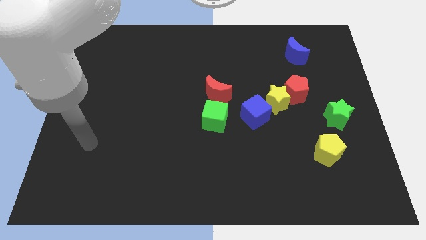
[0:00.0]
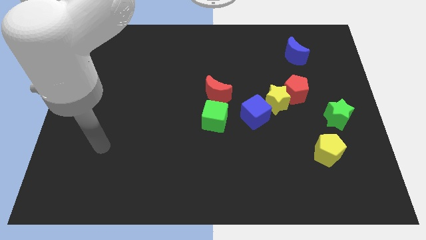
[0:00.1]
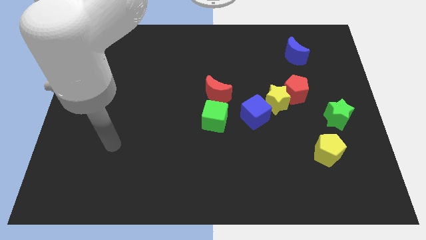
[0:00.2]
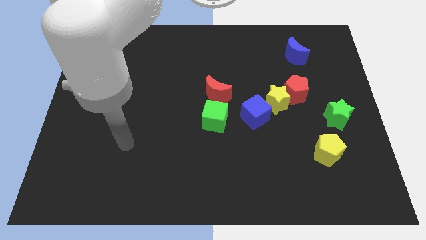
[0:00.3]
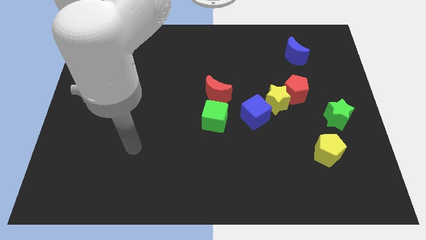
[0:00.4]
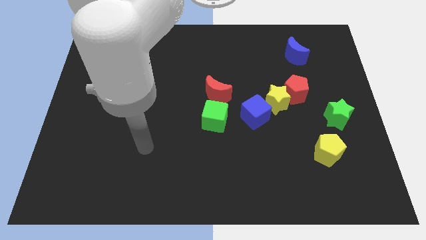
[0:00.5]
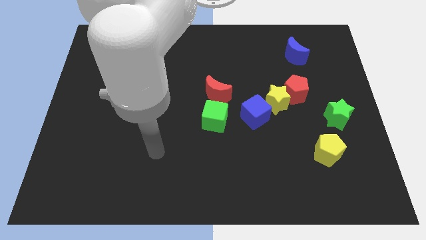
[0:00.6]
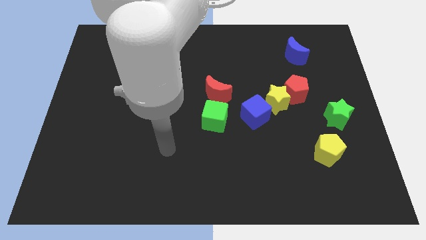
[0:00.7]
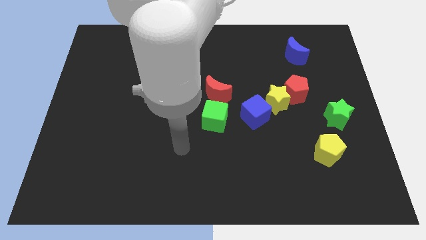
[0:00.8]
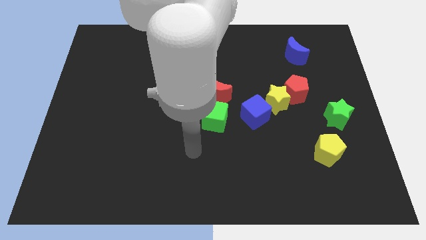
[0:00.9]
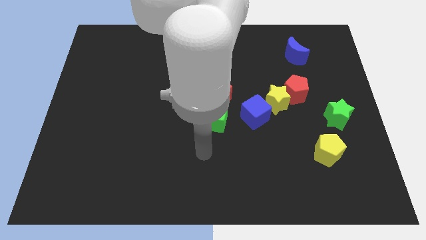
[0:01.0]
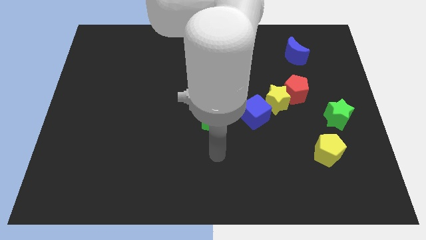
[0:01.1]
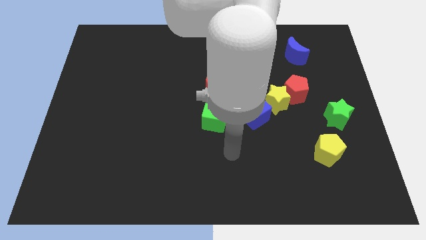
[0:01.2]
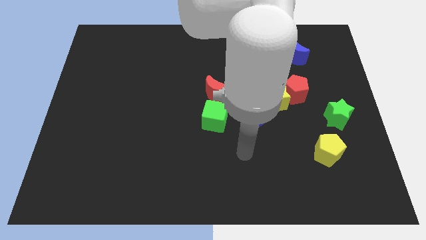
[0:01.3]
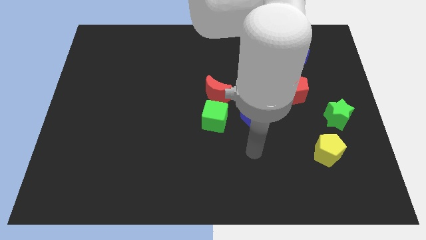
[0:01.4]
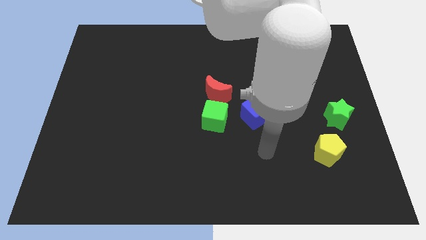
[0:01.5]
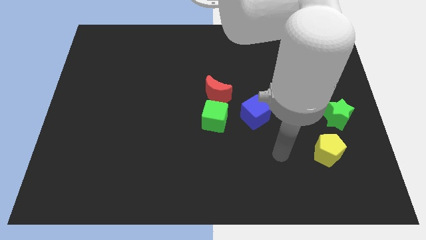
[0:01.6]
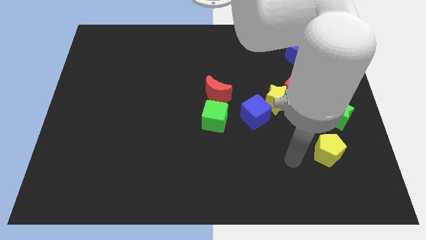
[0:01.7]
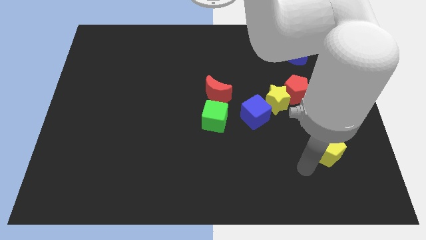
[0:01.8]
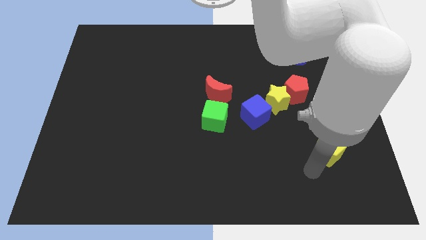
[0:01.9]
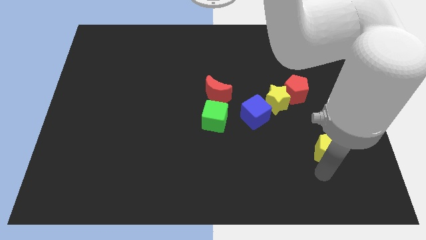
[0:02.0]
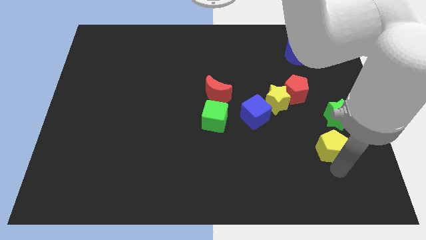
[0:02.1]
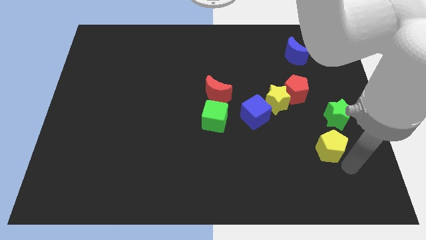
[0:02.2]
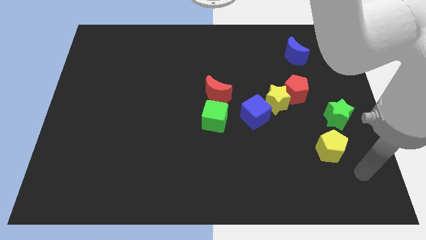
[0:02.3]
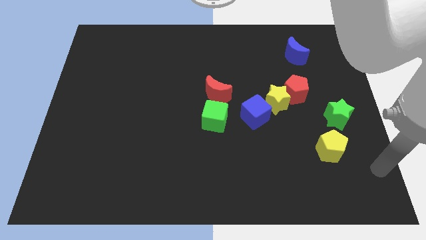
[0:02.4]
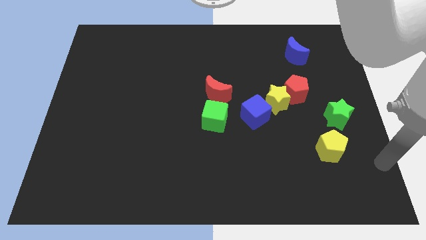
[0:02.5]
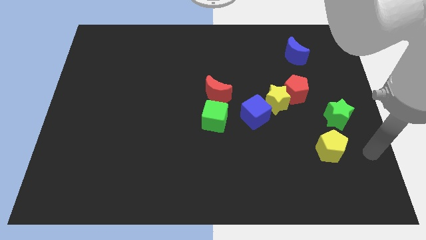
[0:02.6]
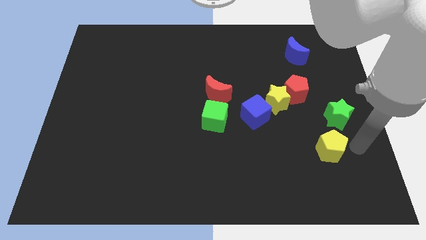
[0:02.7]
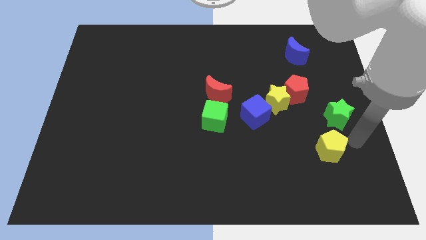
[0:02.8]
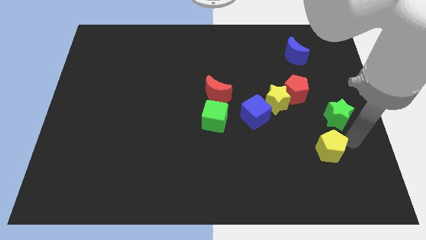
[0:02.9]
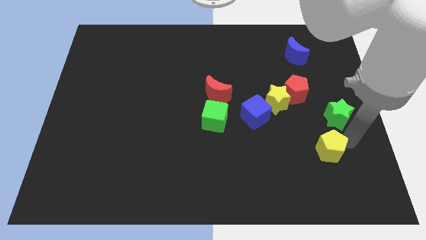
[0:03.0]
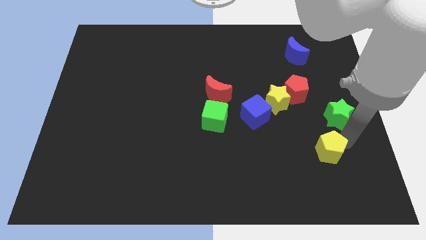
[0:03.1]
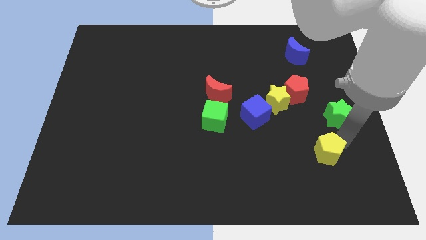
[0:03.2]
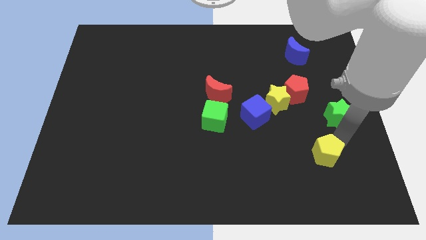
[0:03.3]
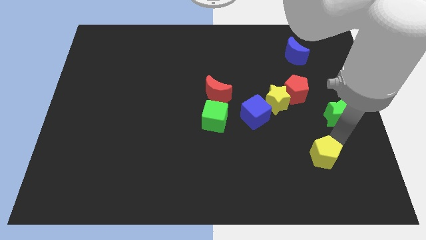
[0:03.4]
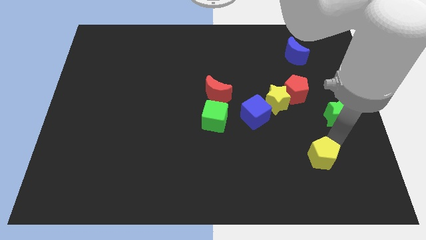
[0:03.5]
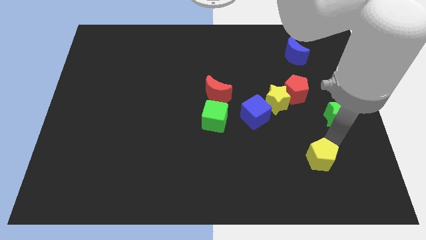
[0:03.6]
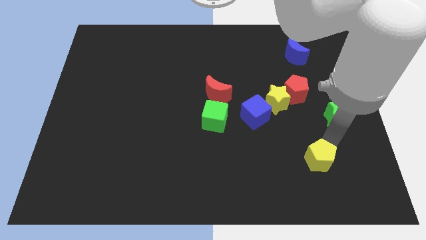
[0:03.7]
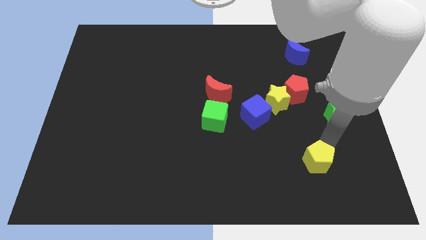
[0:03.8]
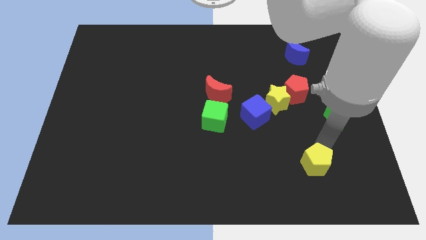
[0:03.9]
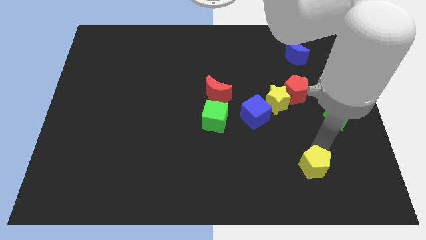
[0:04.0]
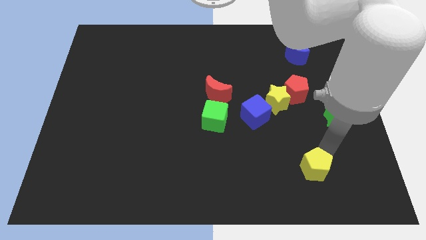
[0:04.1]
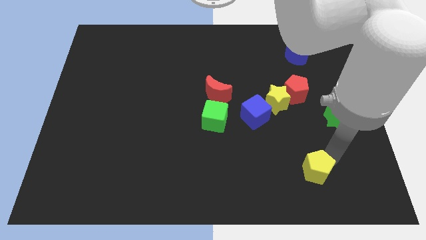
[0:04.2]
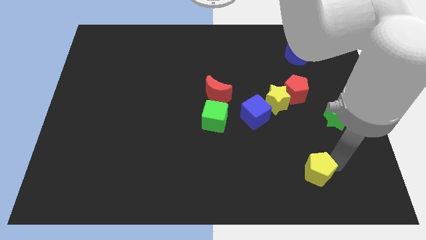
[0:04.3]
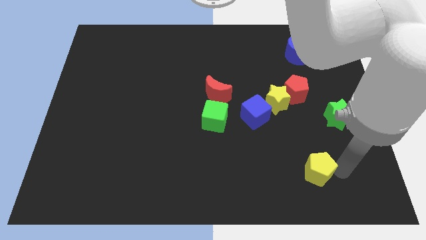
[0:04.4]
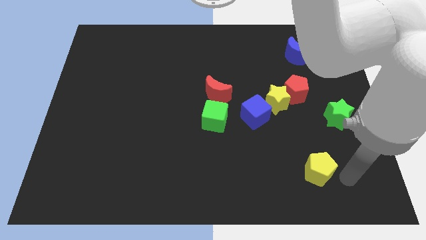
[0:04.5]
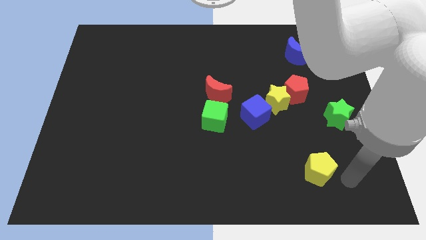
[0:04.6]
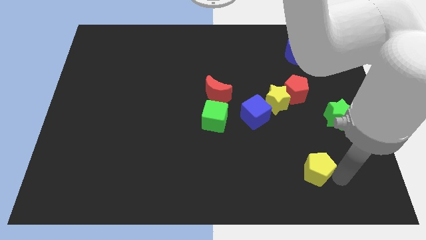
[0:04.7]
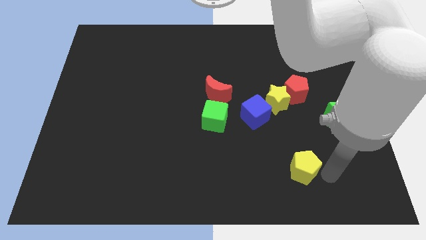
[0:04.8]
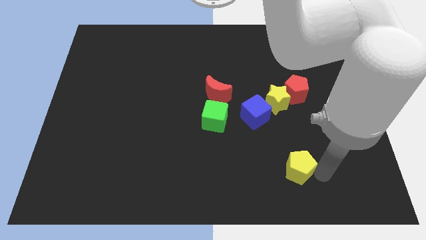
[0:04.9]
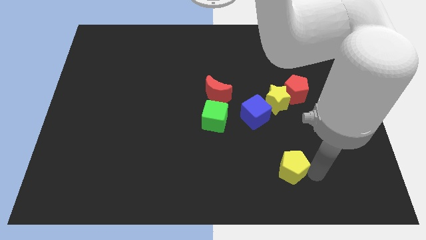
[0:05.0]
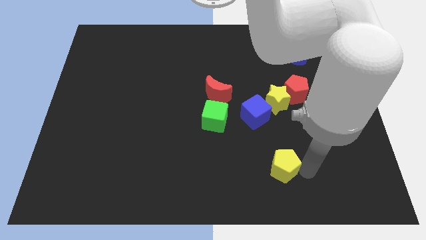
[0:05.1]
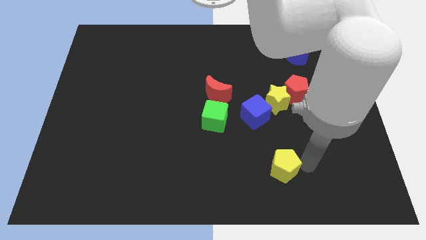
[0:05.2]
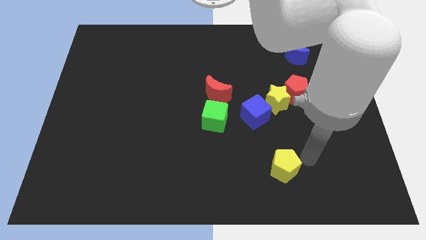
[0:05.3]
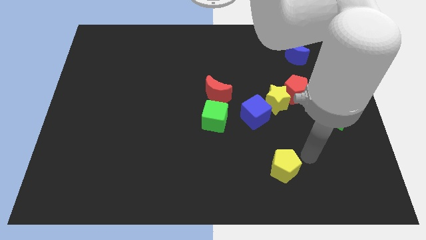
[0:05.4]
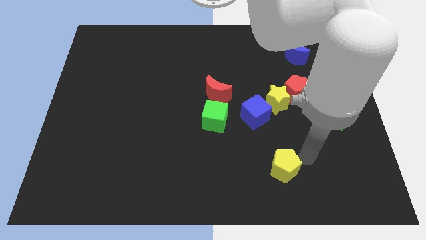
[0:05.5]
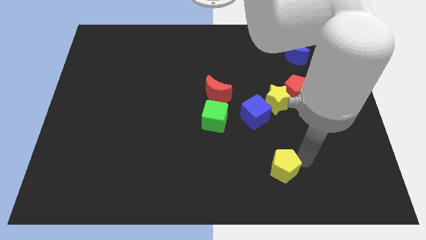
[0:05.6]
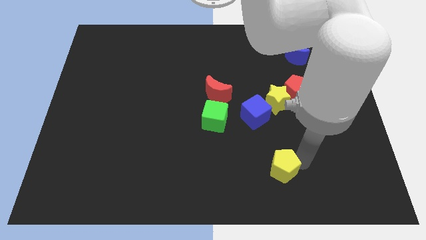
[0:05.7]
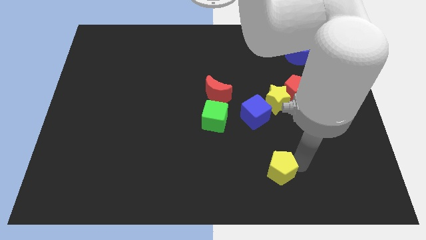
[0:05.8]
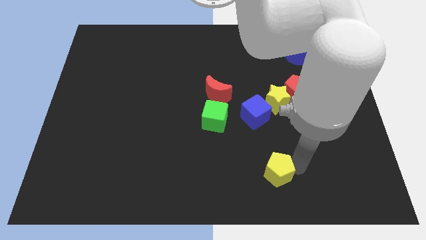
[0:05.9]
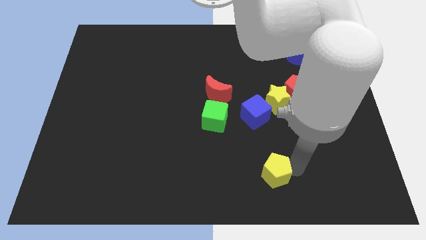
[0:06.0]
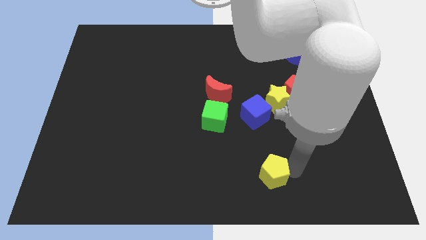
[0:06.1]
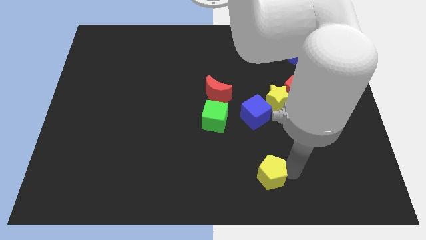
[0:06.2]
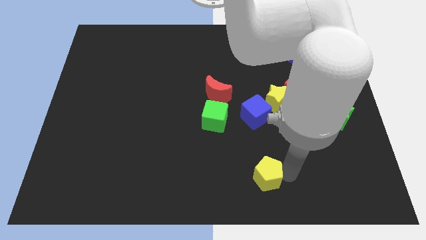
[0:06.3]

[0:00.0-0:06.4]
put the yellow pentagon to the bottom
